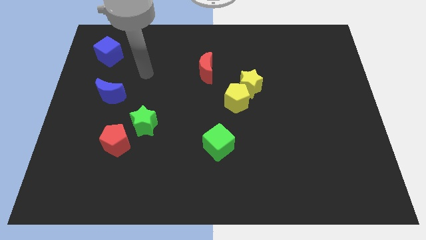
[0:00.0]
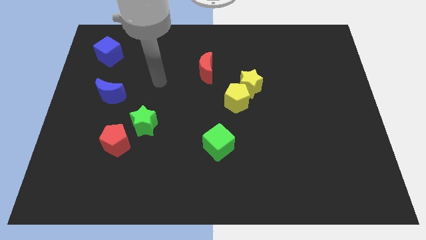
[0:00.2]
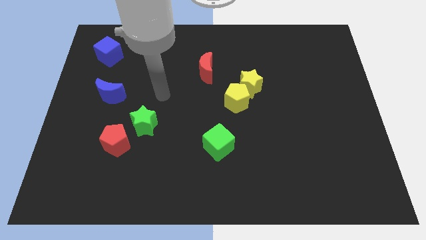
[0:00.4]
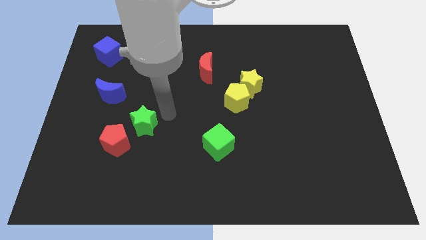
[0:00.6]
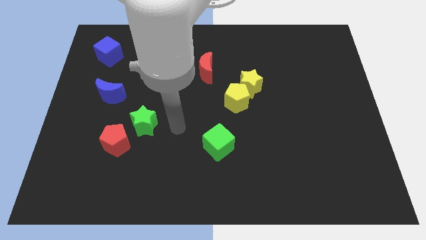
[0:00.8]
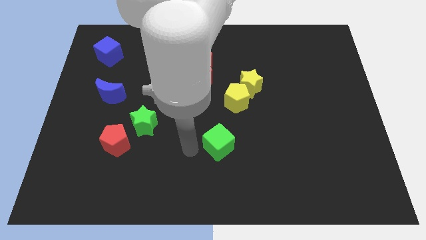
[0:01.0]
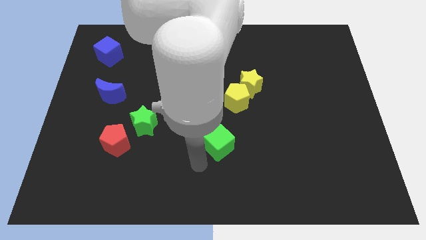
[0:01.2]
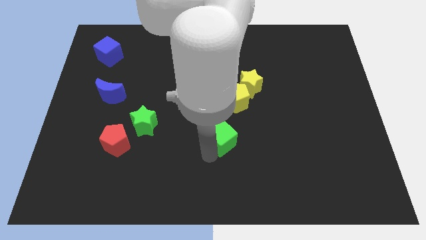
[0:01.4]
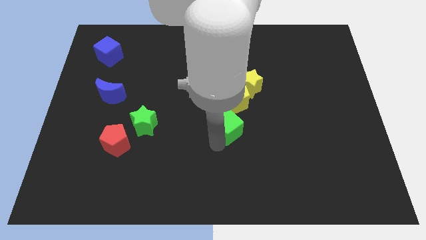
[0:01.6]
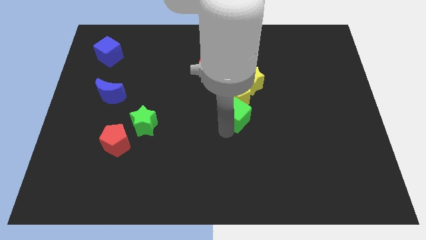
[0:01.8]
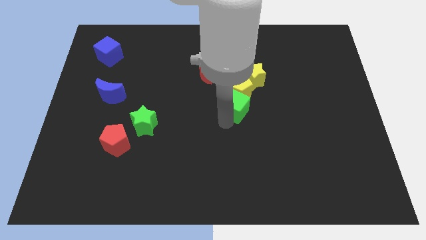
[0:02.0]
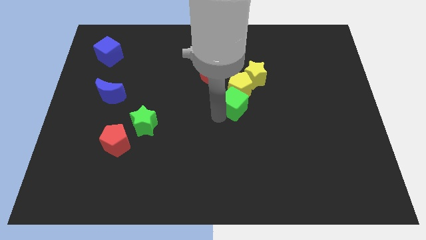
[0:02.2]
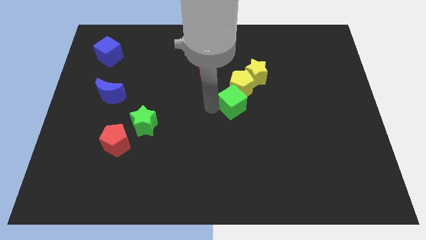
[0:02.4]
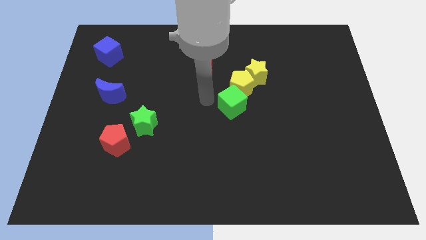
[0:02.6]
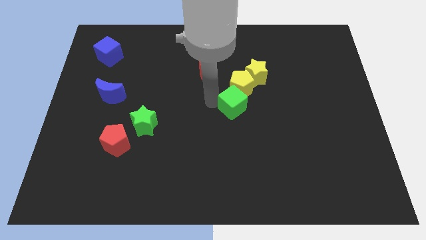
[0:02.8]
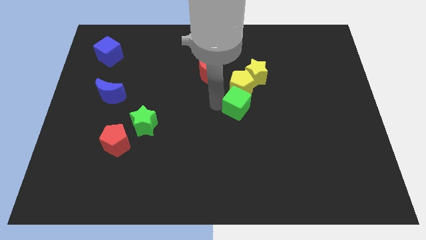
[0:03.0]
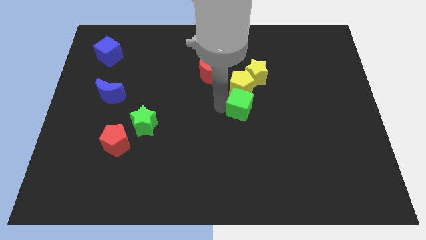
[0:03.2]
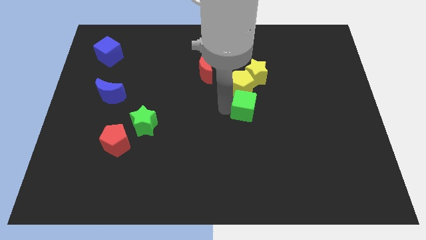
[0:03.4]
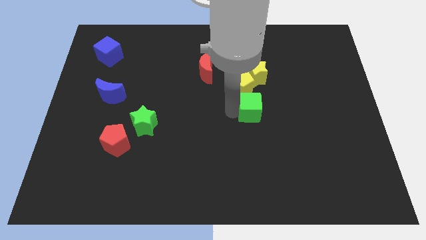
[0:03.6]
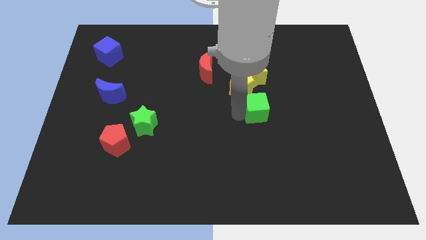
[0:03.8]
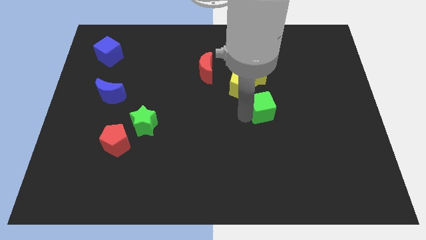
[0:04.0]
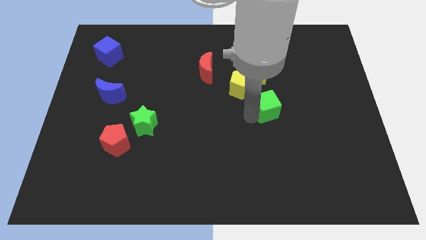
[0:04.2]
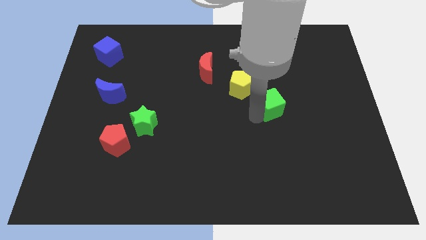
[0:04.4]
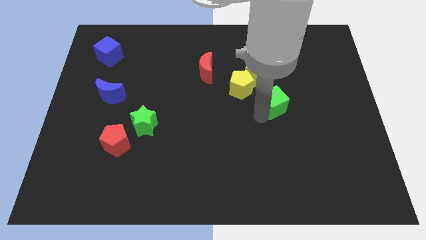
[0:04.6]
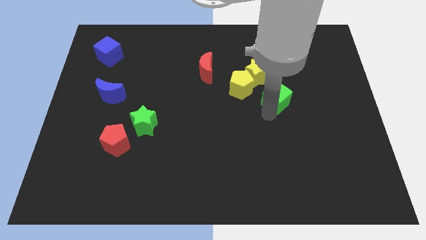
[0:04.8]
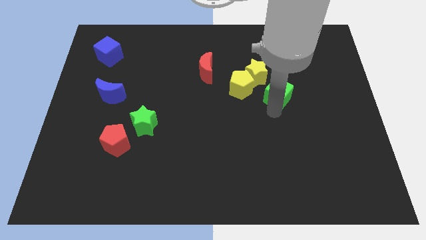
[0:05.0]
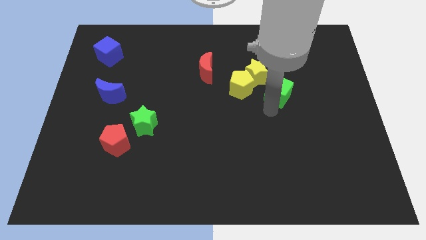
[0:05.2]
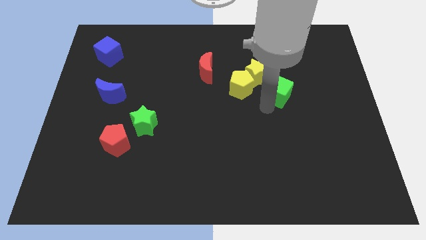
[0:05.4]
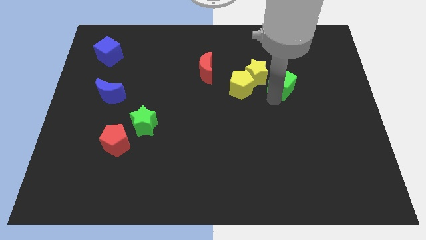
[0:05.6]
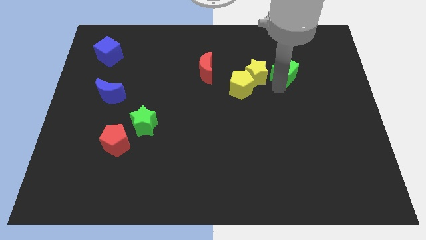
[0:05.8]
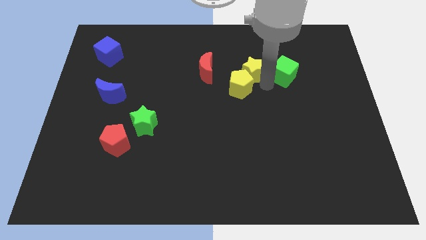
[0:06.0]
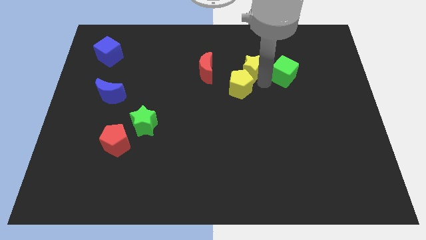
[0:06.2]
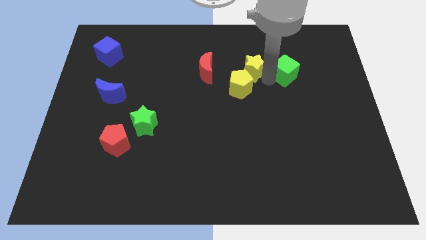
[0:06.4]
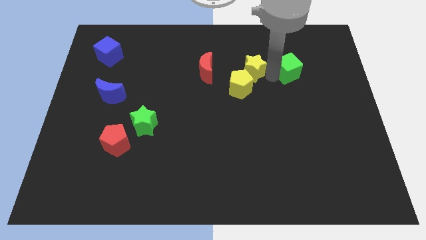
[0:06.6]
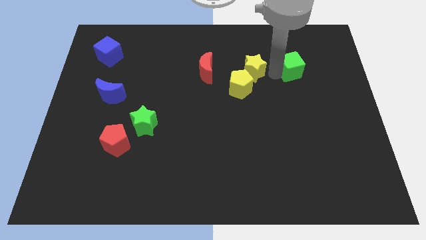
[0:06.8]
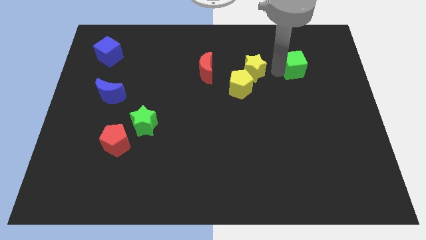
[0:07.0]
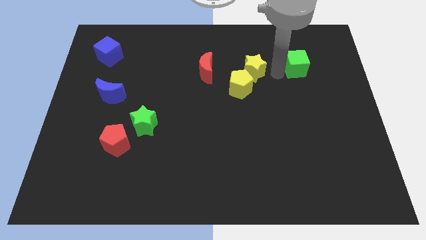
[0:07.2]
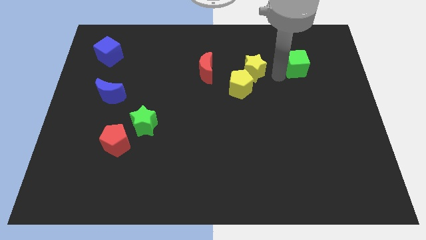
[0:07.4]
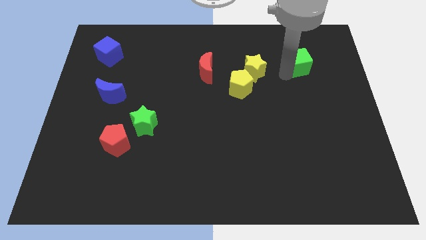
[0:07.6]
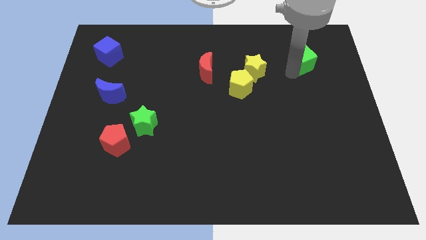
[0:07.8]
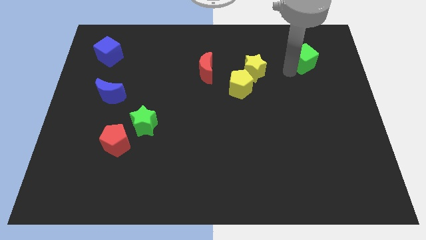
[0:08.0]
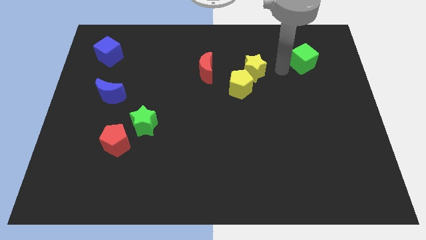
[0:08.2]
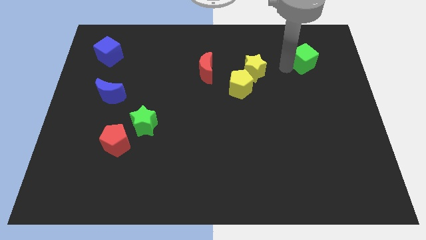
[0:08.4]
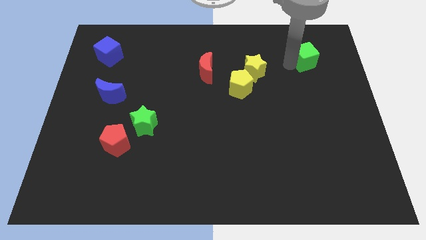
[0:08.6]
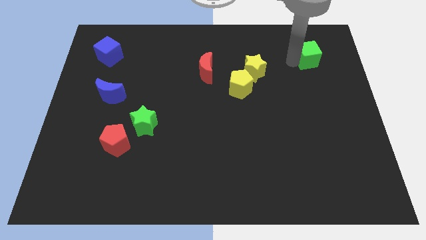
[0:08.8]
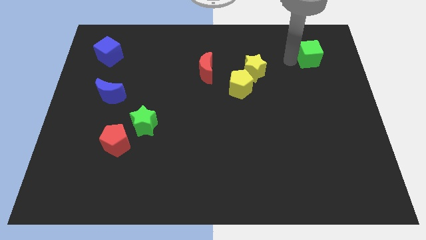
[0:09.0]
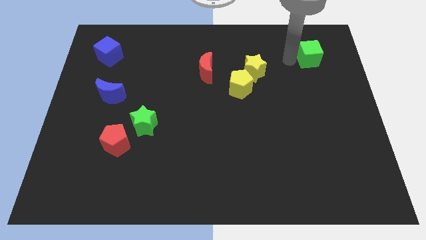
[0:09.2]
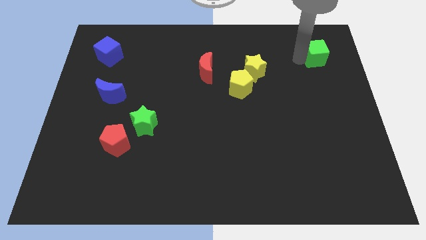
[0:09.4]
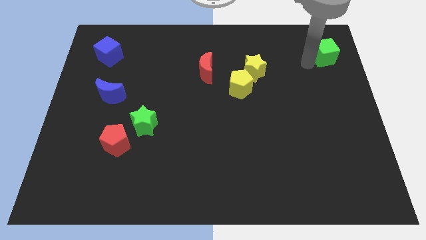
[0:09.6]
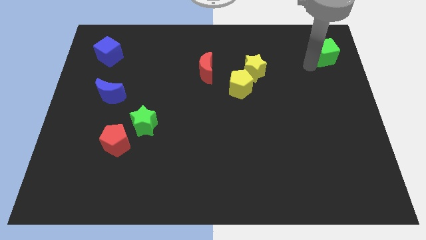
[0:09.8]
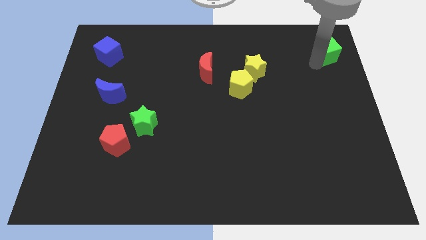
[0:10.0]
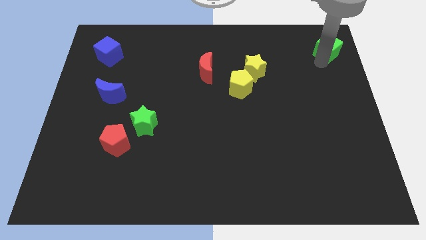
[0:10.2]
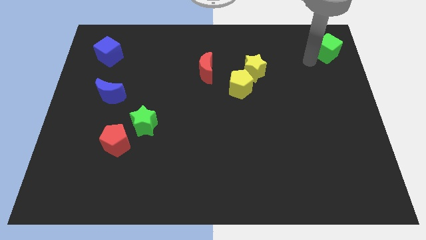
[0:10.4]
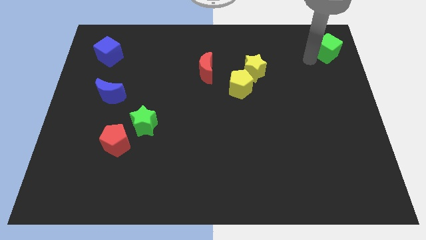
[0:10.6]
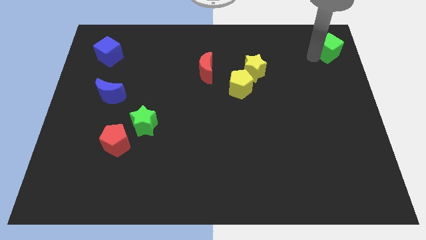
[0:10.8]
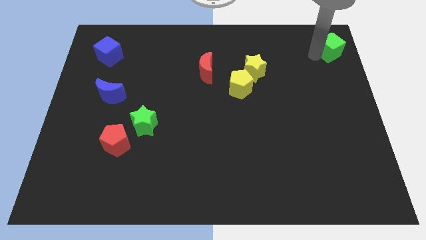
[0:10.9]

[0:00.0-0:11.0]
put the green cube to the top right

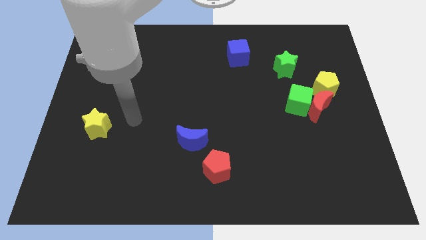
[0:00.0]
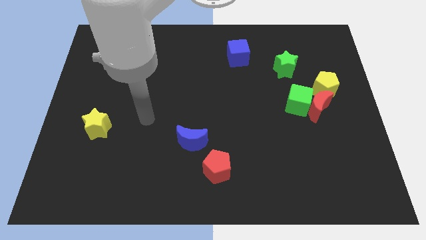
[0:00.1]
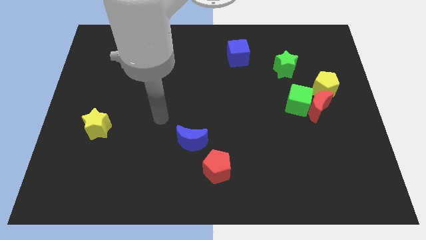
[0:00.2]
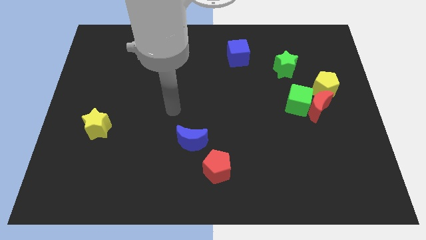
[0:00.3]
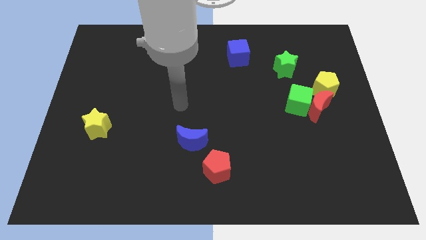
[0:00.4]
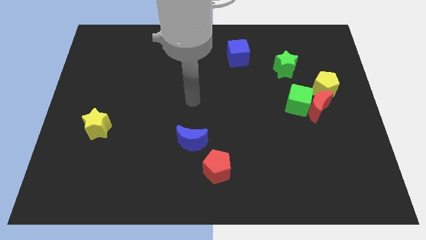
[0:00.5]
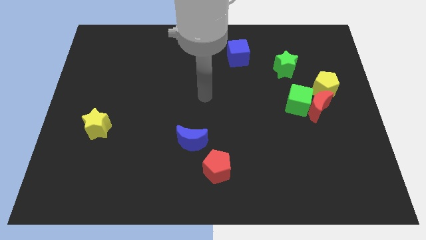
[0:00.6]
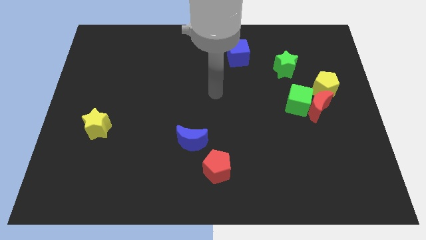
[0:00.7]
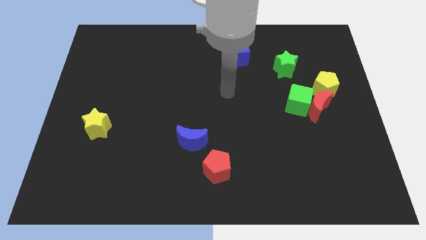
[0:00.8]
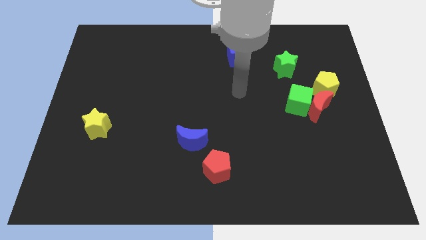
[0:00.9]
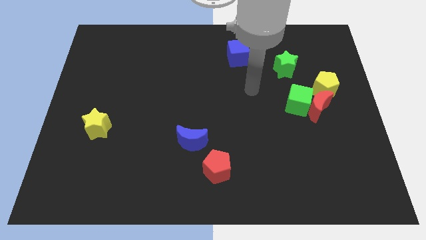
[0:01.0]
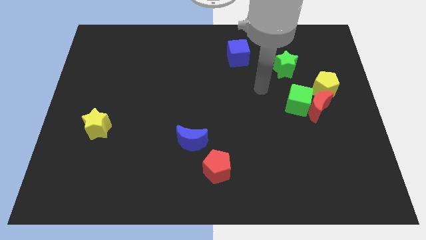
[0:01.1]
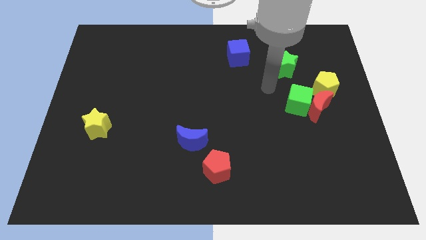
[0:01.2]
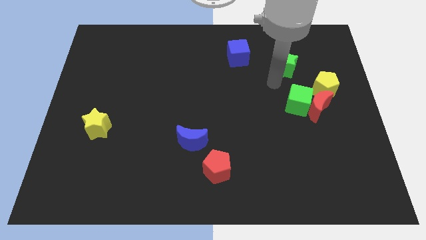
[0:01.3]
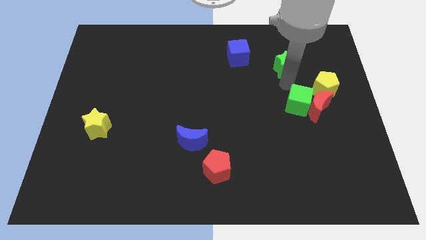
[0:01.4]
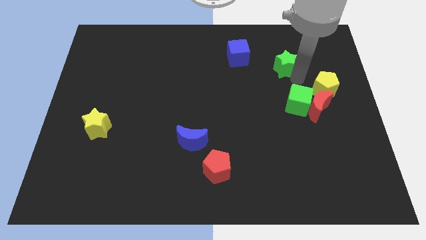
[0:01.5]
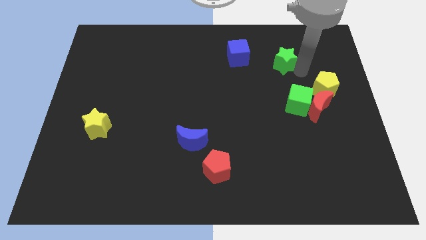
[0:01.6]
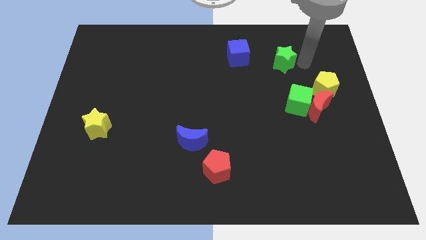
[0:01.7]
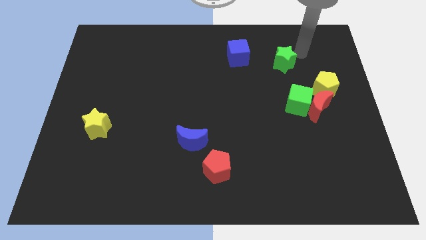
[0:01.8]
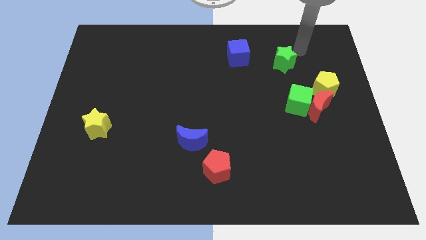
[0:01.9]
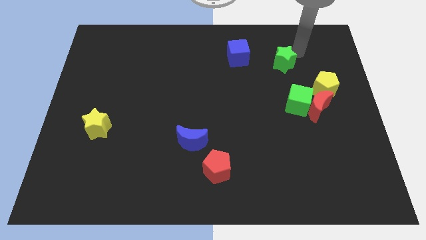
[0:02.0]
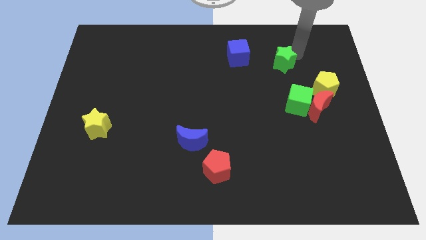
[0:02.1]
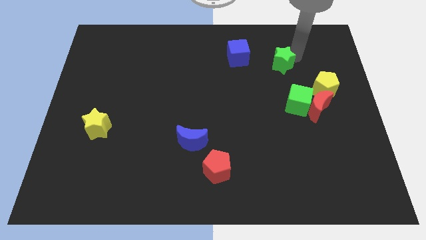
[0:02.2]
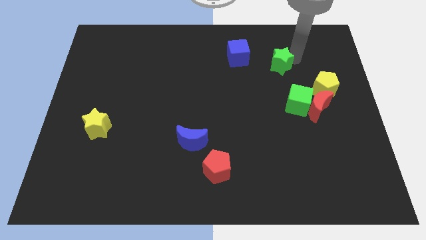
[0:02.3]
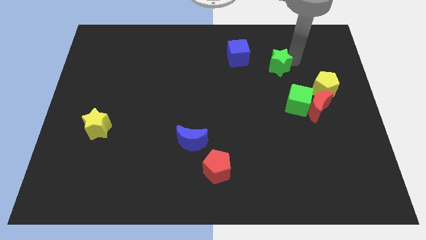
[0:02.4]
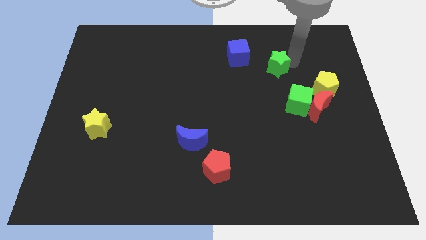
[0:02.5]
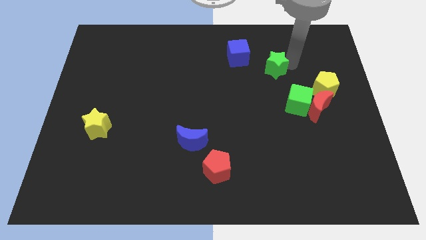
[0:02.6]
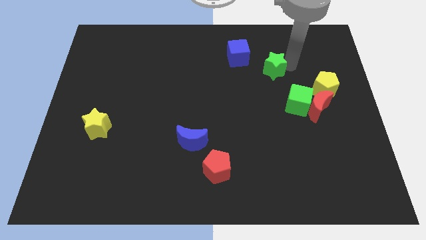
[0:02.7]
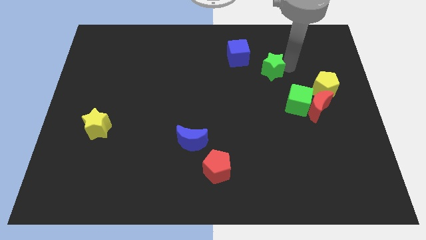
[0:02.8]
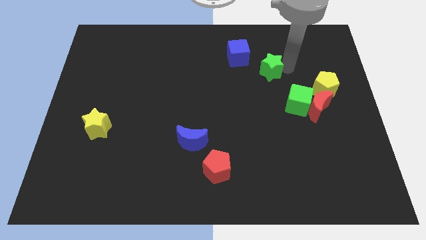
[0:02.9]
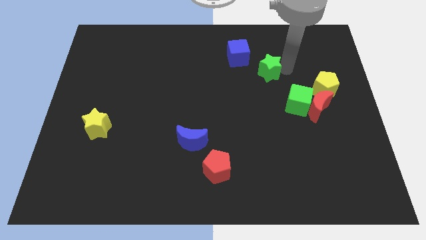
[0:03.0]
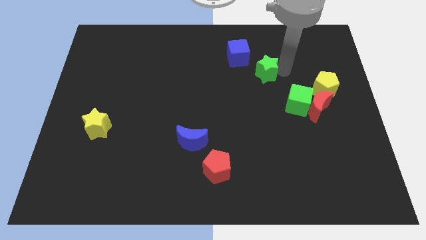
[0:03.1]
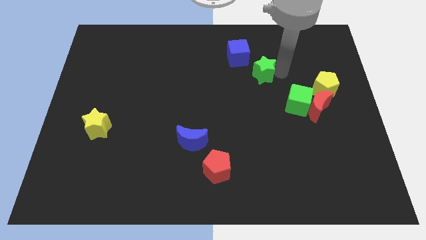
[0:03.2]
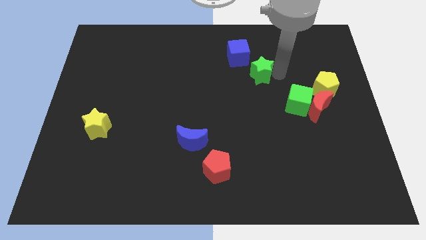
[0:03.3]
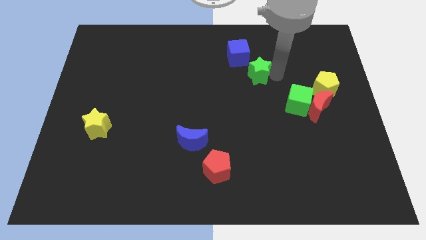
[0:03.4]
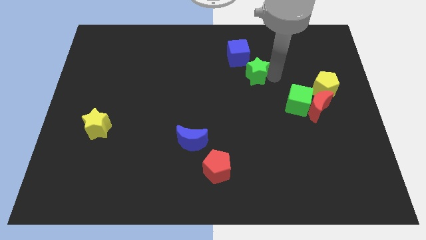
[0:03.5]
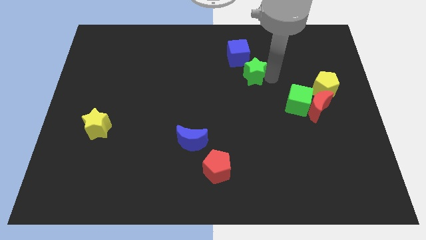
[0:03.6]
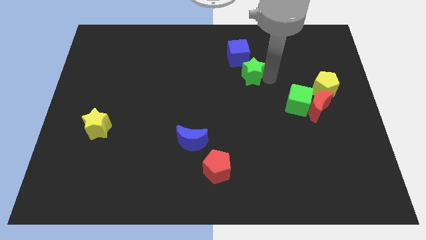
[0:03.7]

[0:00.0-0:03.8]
move the green star to the middle
